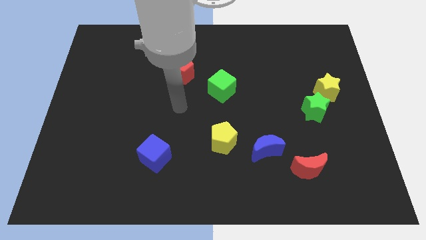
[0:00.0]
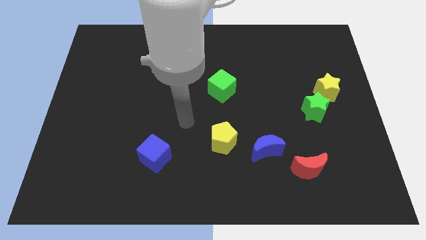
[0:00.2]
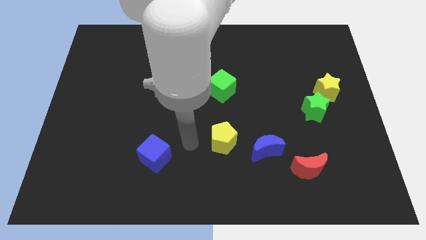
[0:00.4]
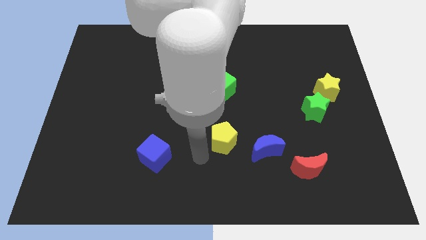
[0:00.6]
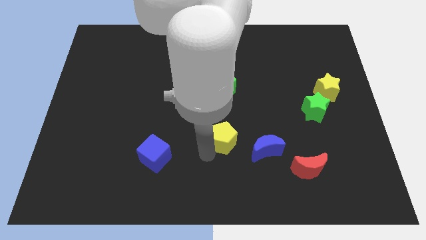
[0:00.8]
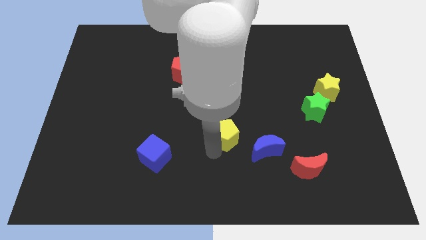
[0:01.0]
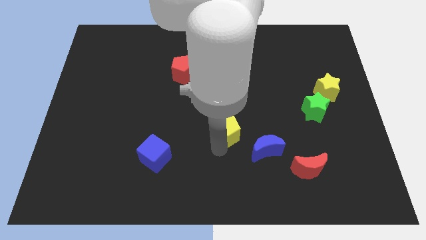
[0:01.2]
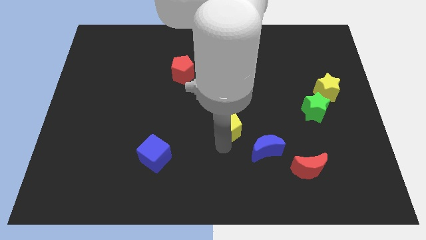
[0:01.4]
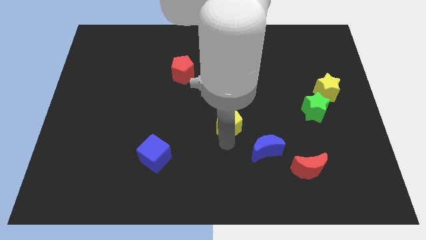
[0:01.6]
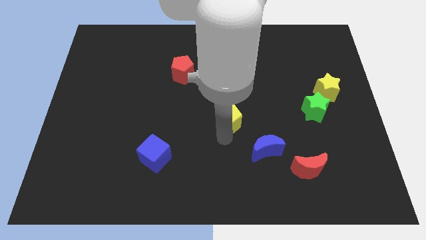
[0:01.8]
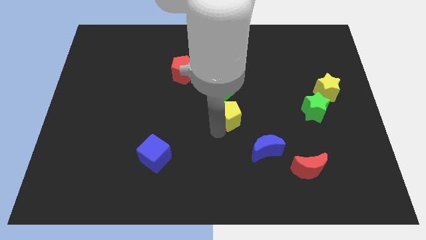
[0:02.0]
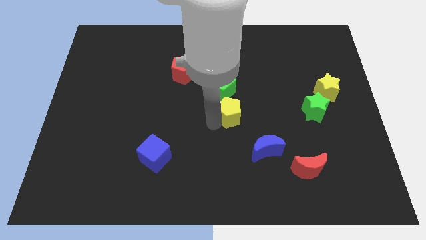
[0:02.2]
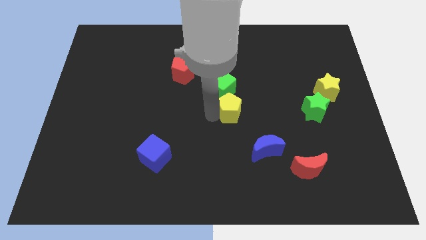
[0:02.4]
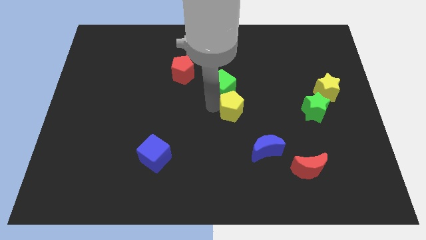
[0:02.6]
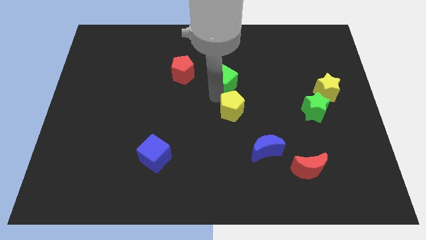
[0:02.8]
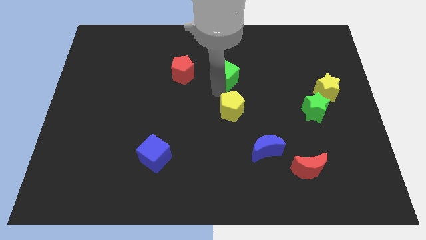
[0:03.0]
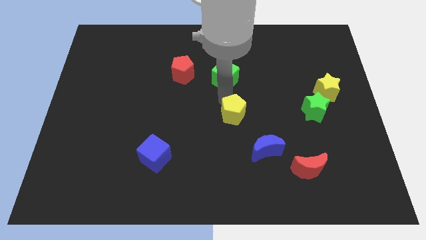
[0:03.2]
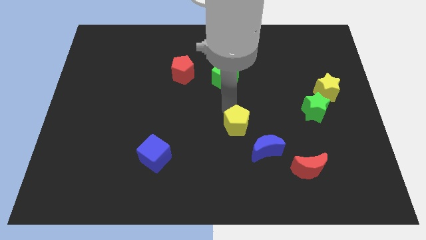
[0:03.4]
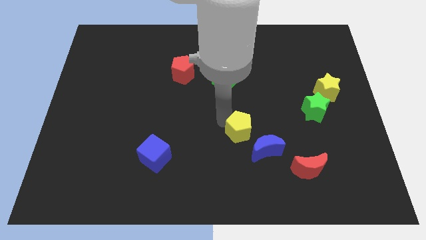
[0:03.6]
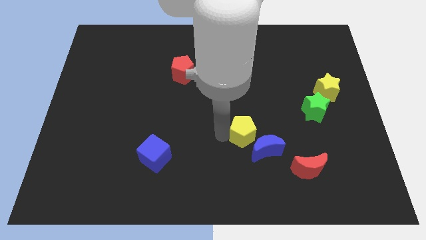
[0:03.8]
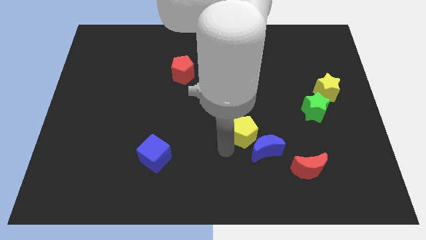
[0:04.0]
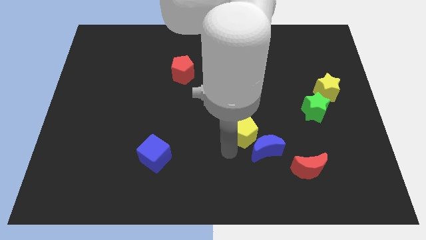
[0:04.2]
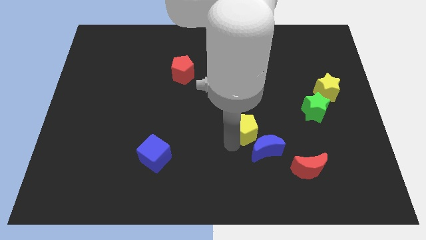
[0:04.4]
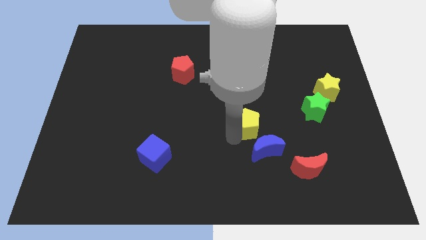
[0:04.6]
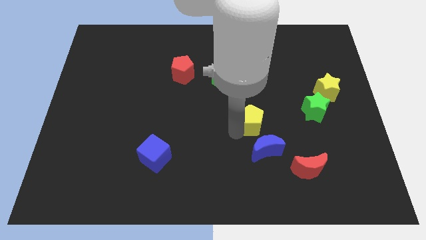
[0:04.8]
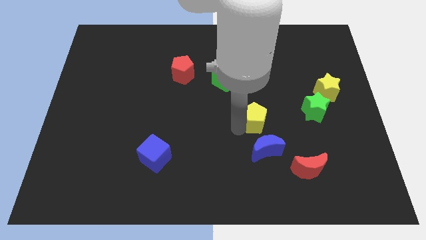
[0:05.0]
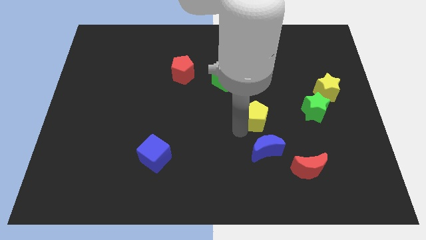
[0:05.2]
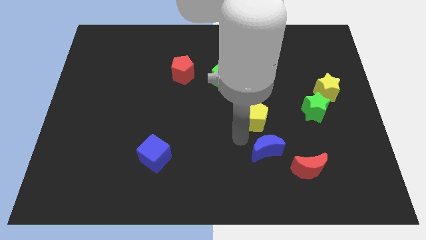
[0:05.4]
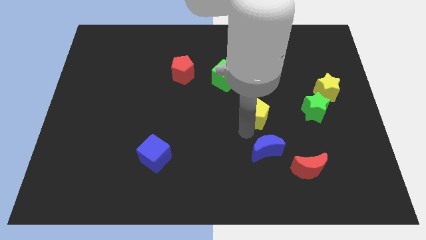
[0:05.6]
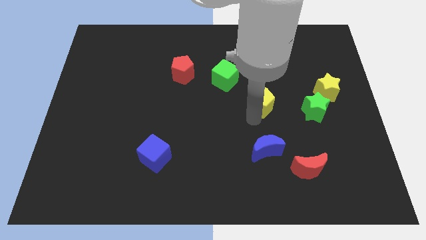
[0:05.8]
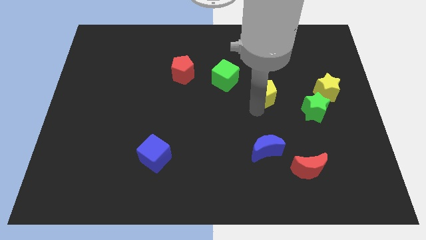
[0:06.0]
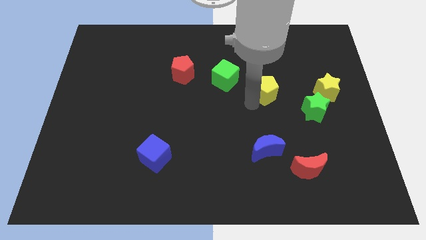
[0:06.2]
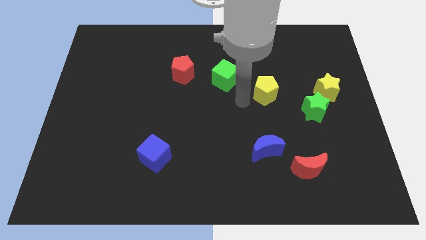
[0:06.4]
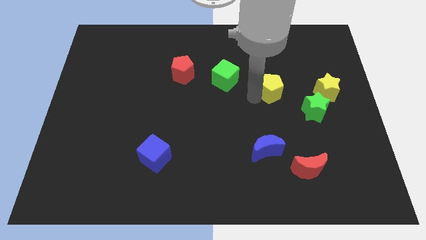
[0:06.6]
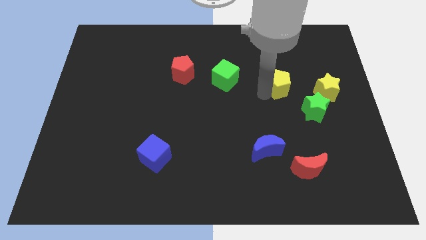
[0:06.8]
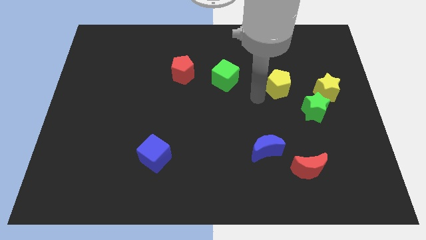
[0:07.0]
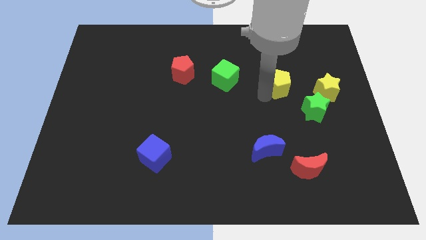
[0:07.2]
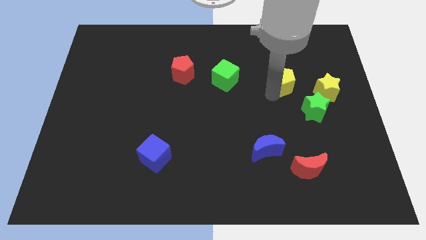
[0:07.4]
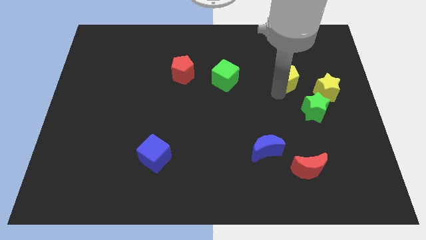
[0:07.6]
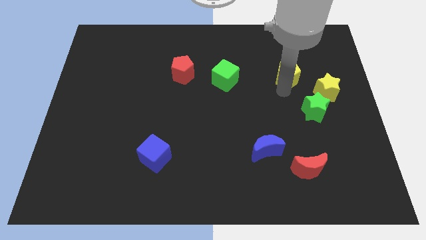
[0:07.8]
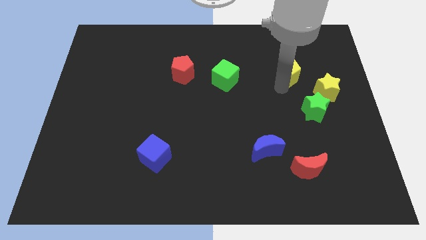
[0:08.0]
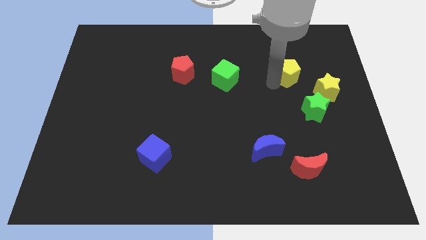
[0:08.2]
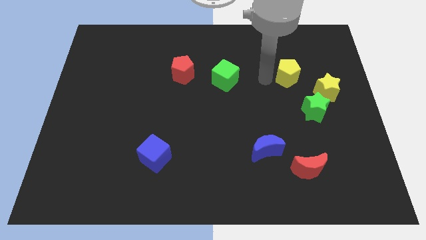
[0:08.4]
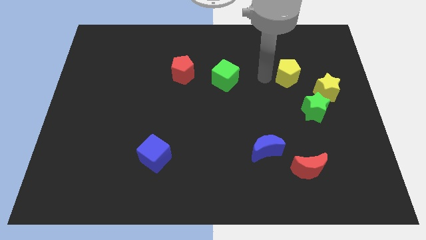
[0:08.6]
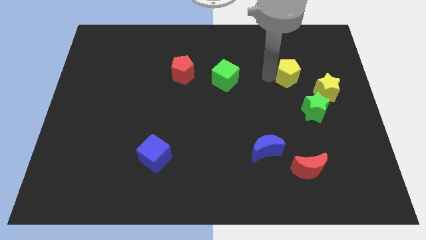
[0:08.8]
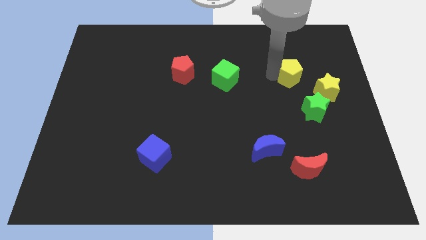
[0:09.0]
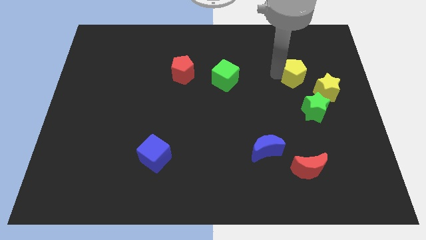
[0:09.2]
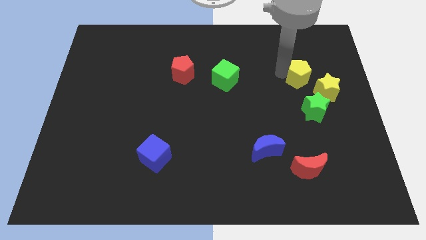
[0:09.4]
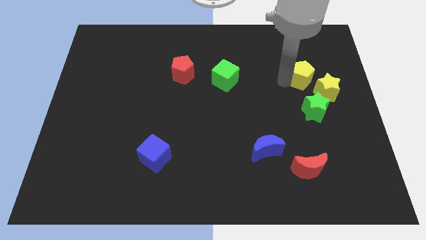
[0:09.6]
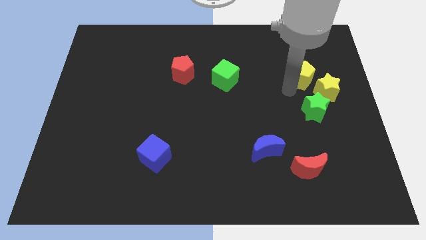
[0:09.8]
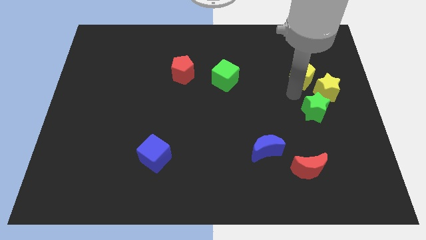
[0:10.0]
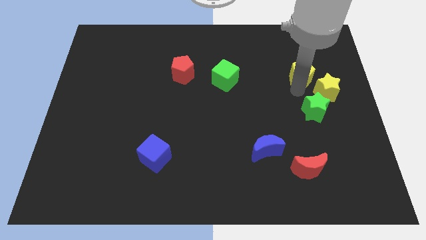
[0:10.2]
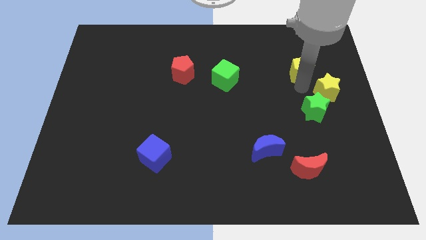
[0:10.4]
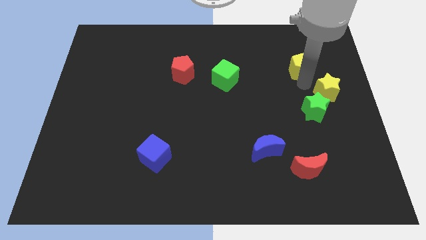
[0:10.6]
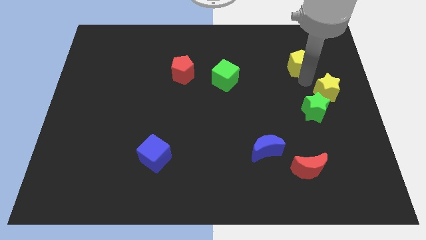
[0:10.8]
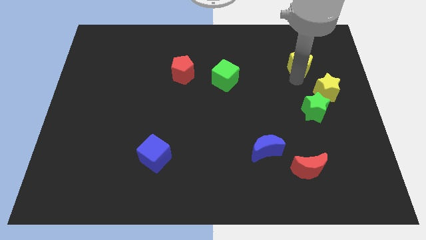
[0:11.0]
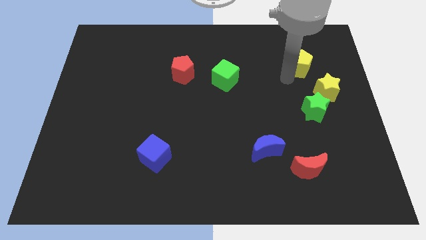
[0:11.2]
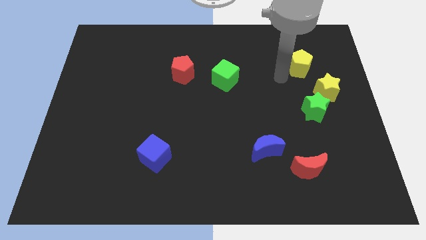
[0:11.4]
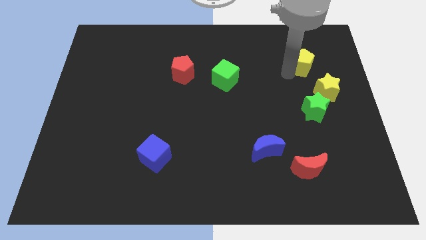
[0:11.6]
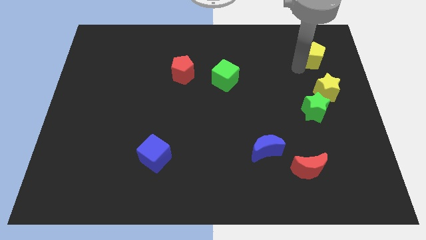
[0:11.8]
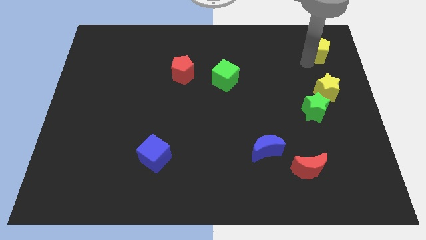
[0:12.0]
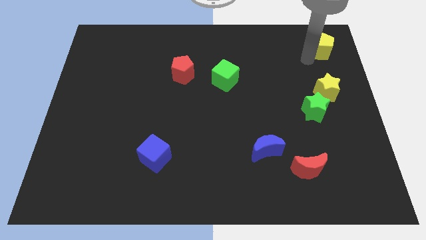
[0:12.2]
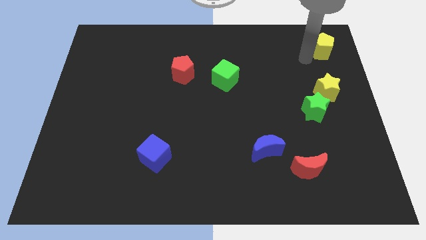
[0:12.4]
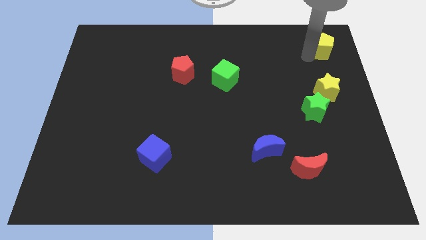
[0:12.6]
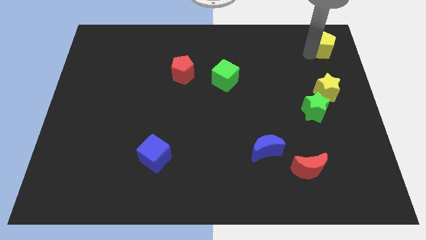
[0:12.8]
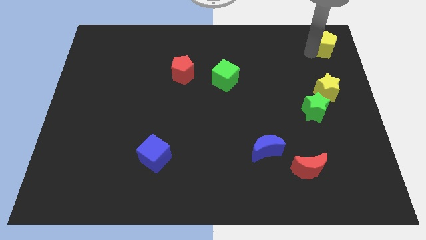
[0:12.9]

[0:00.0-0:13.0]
put the yellow pentagon to the top right of the board
